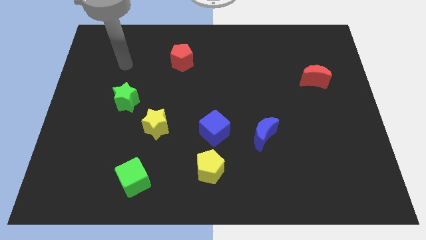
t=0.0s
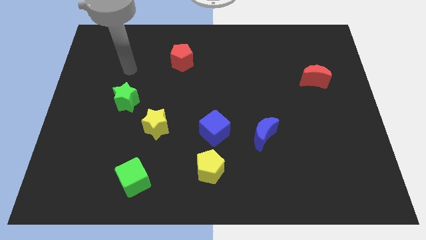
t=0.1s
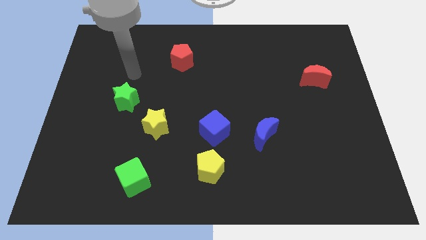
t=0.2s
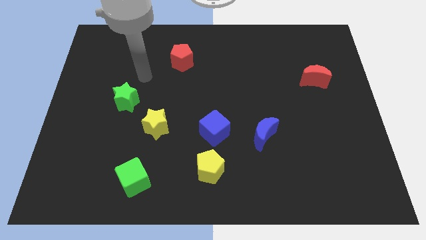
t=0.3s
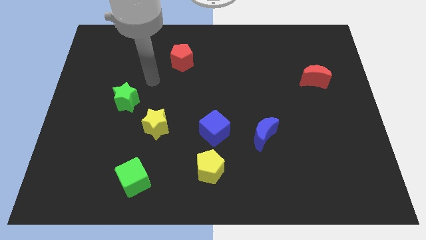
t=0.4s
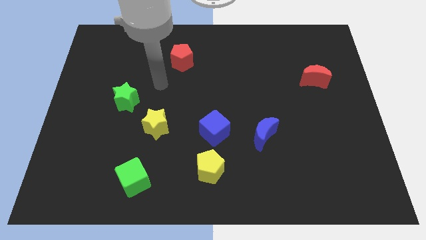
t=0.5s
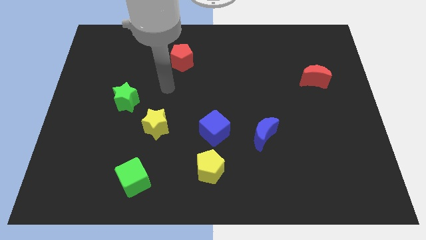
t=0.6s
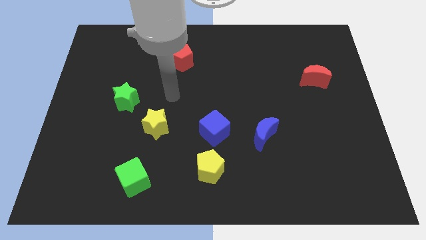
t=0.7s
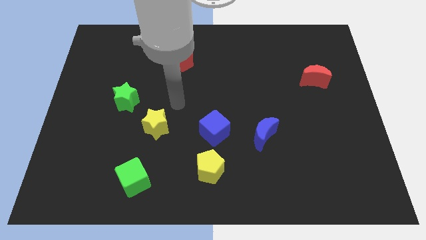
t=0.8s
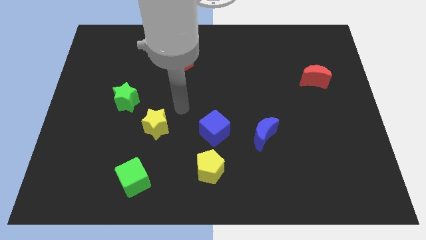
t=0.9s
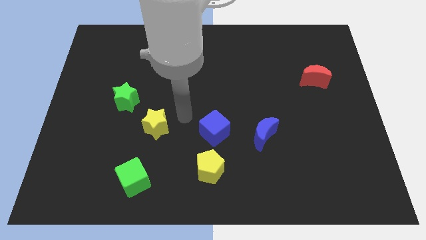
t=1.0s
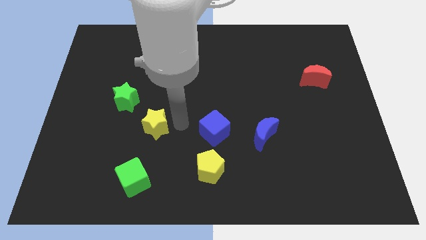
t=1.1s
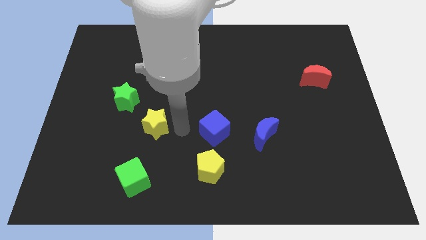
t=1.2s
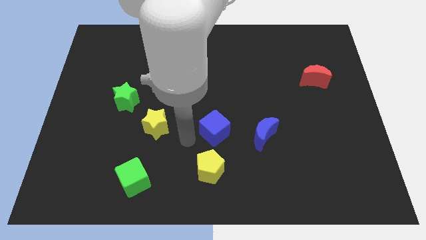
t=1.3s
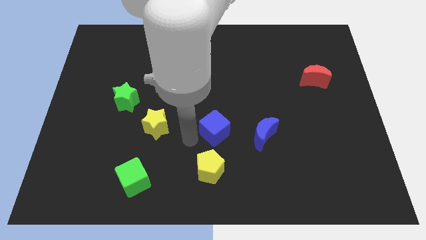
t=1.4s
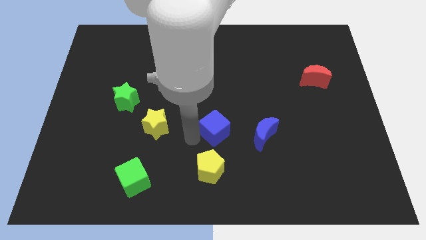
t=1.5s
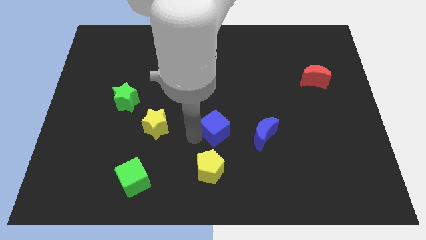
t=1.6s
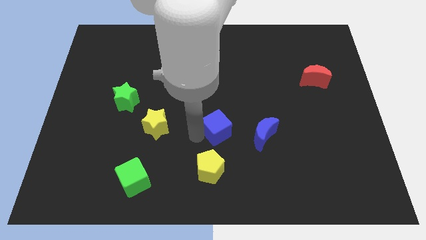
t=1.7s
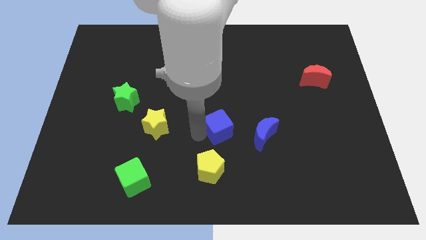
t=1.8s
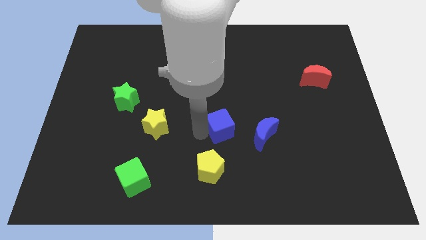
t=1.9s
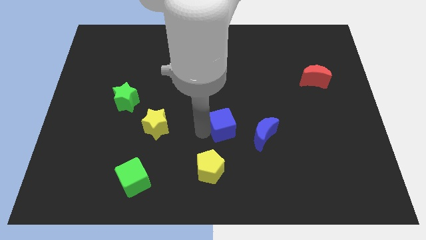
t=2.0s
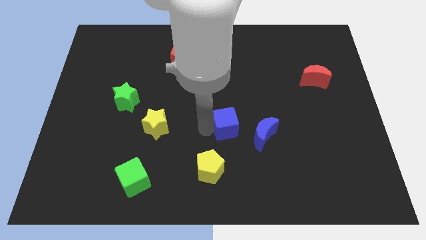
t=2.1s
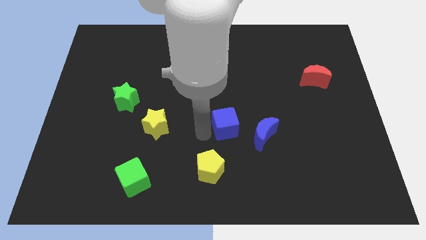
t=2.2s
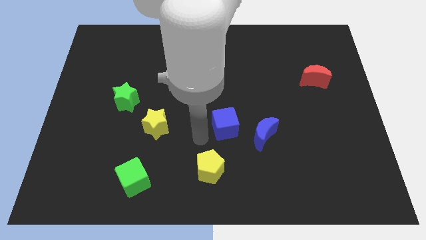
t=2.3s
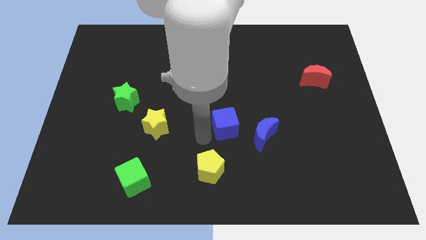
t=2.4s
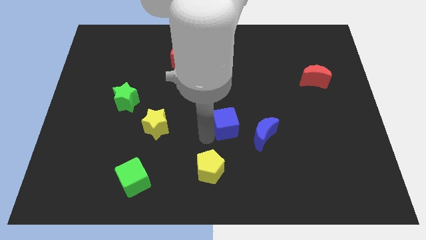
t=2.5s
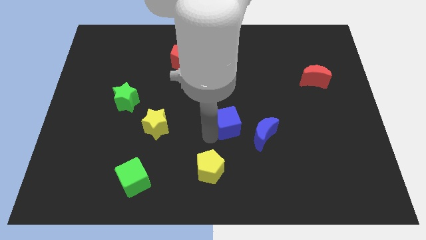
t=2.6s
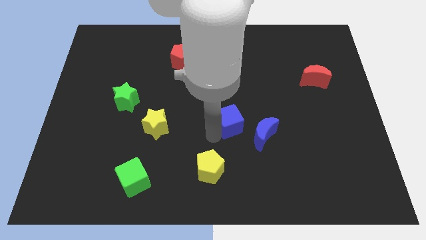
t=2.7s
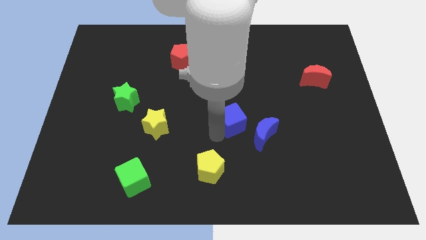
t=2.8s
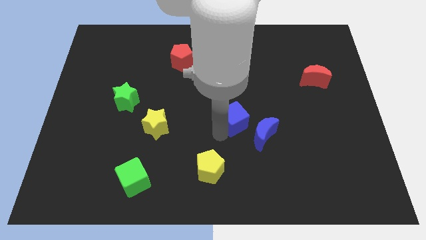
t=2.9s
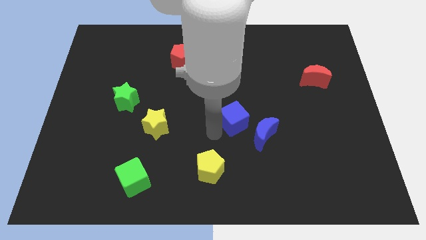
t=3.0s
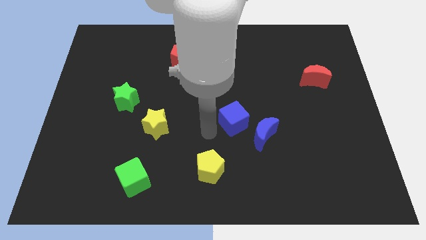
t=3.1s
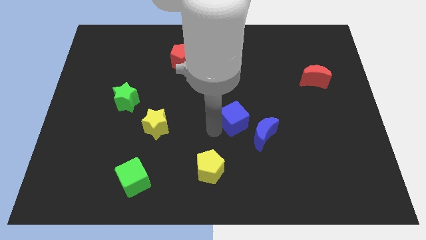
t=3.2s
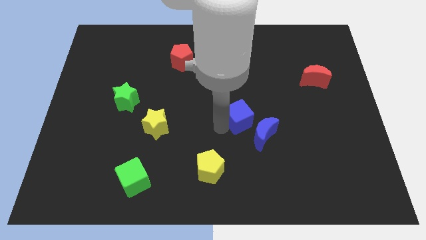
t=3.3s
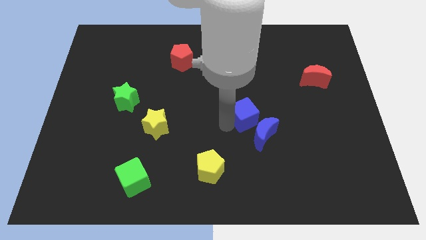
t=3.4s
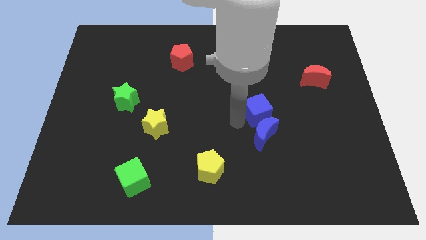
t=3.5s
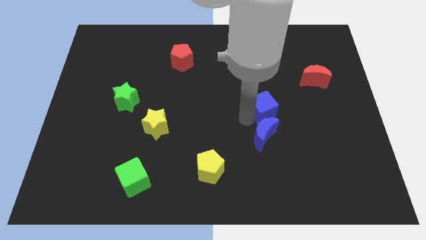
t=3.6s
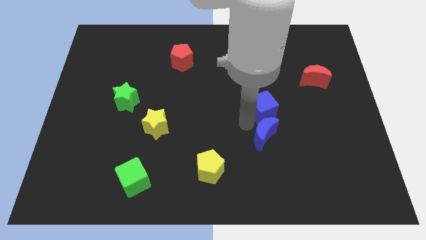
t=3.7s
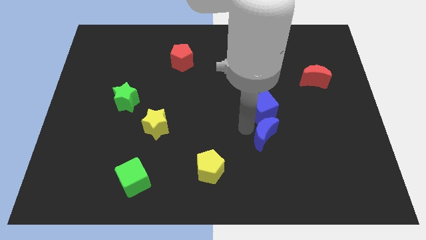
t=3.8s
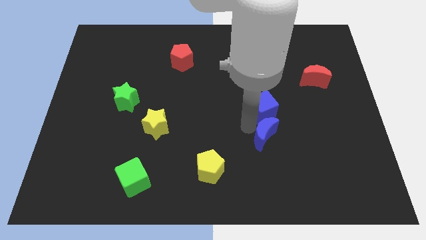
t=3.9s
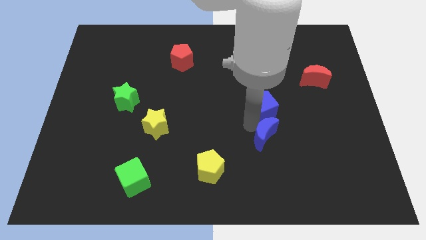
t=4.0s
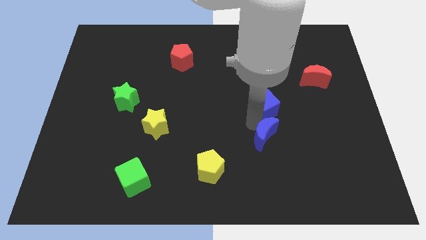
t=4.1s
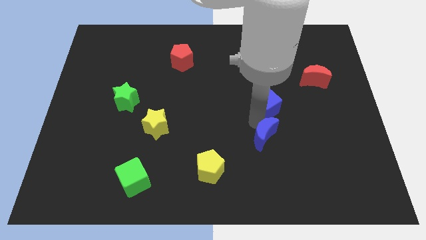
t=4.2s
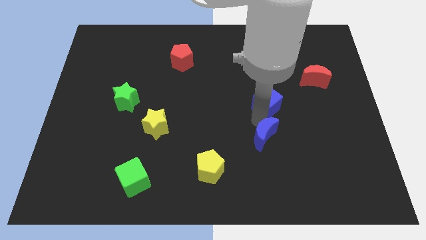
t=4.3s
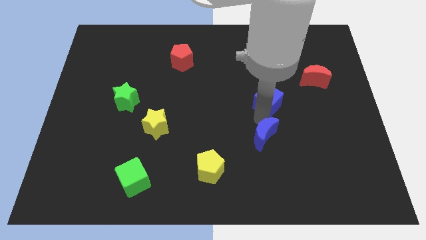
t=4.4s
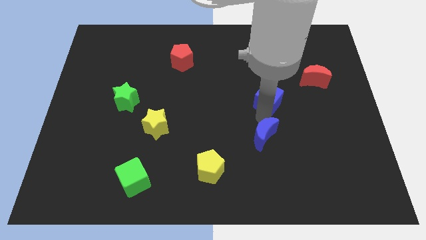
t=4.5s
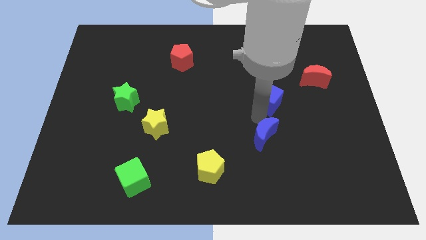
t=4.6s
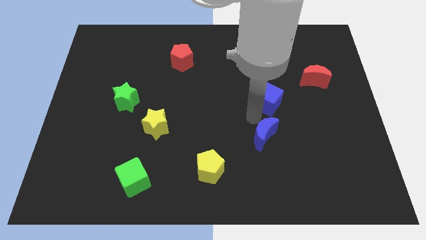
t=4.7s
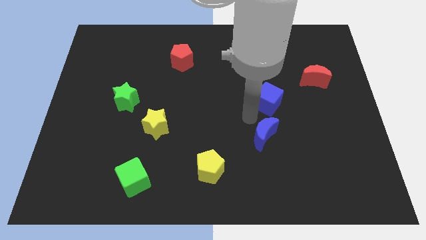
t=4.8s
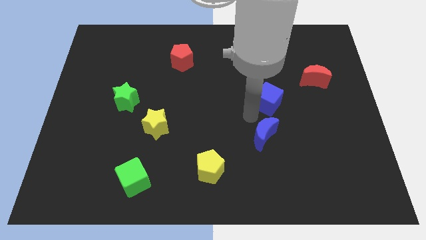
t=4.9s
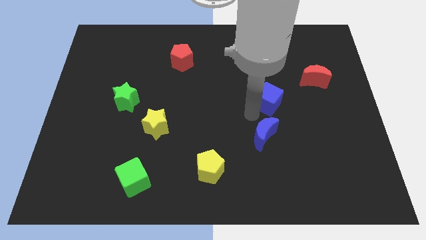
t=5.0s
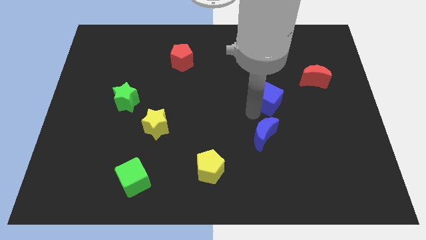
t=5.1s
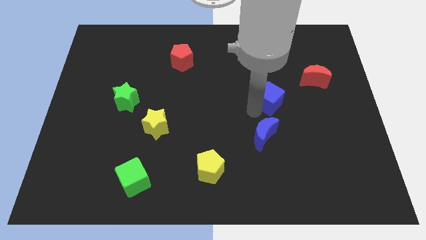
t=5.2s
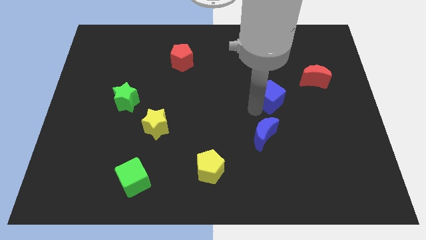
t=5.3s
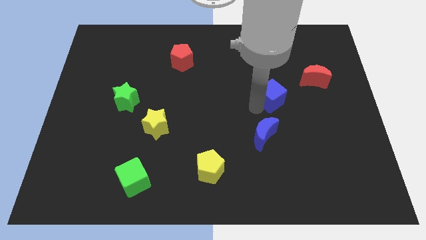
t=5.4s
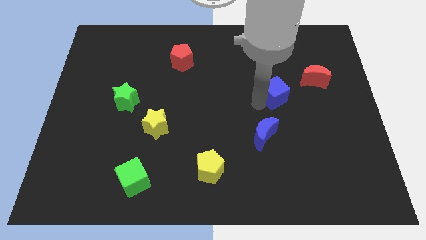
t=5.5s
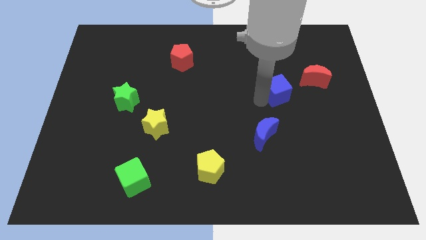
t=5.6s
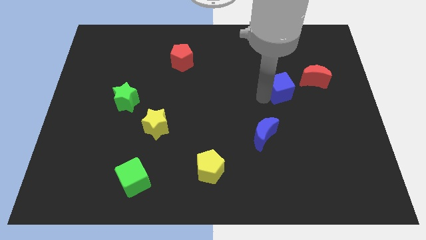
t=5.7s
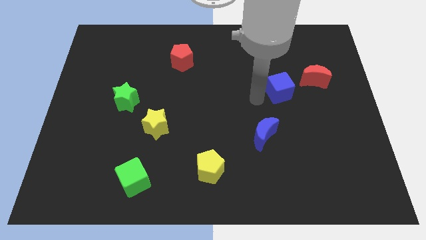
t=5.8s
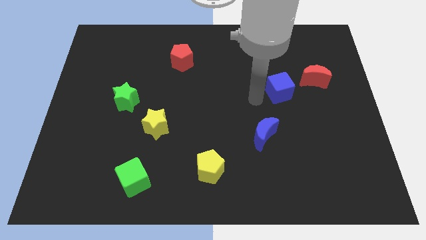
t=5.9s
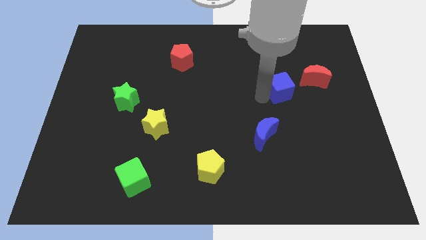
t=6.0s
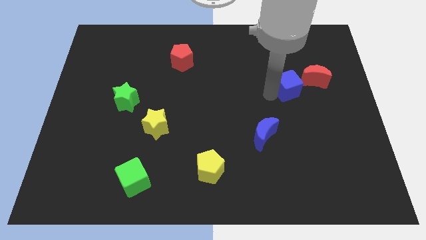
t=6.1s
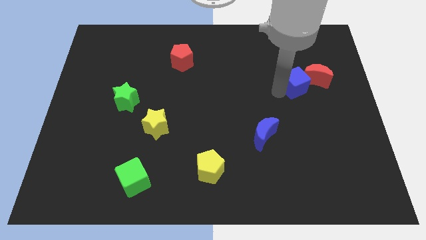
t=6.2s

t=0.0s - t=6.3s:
slide the blue cube close to the red moon

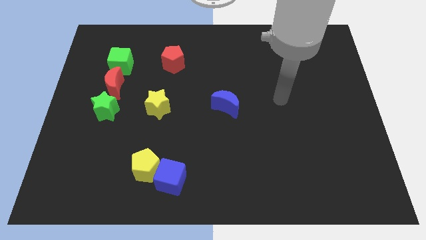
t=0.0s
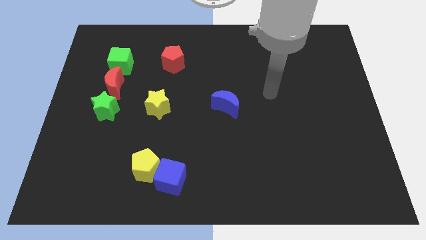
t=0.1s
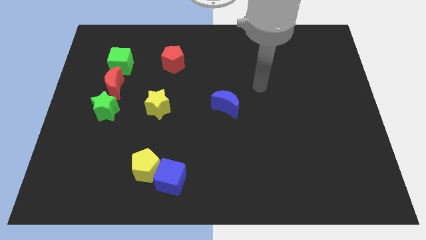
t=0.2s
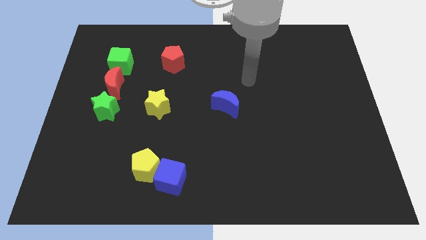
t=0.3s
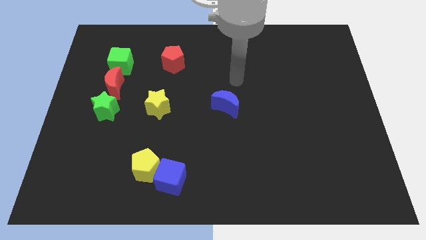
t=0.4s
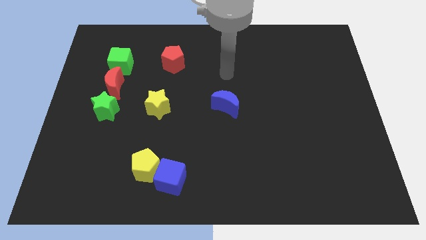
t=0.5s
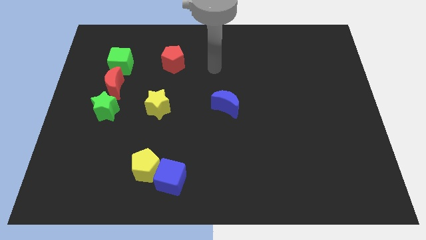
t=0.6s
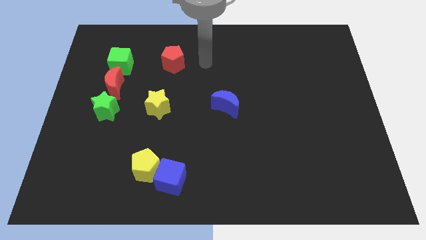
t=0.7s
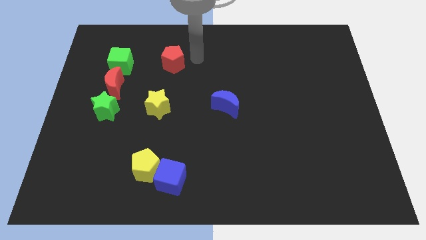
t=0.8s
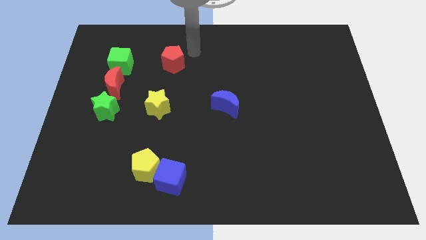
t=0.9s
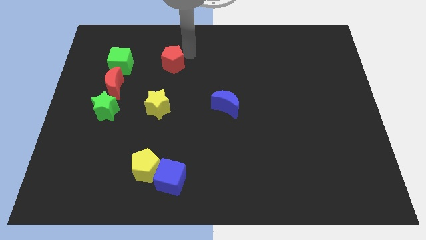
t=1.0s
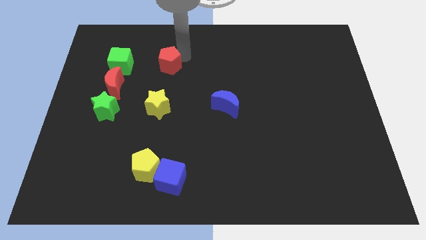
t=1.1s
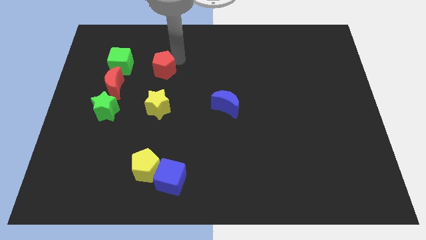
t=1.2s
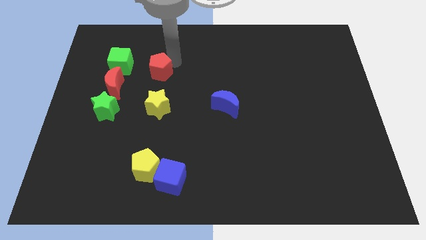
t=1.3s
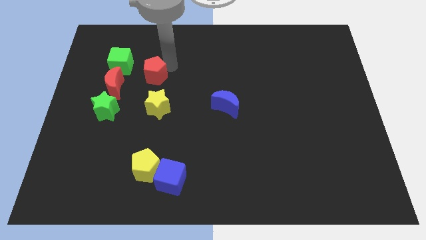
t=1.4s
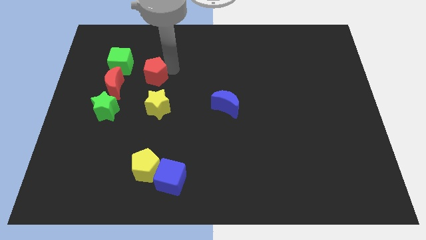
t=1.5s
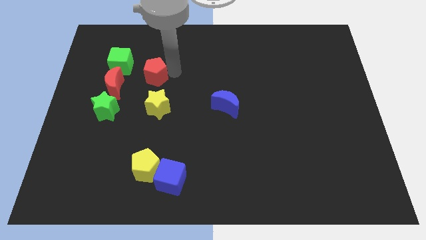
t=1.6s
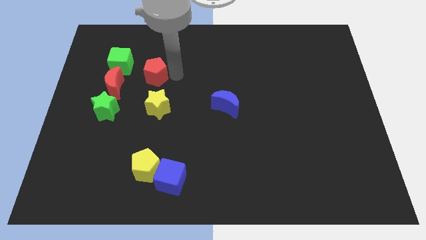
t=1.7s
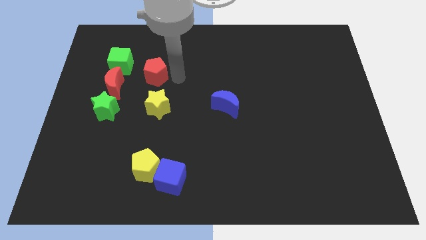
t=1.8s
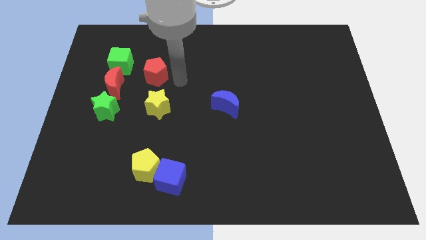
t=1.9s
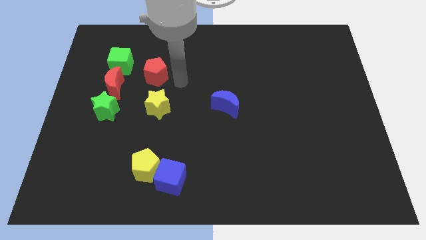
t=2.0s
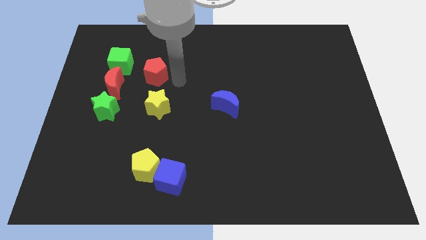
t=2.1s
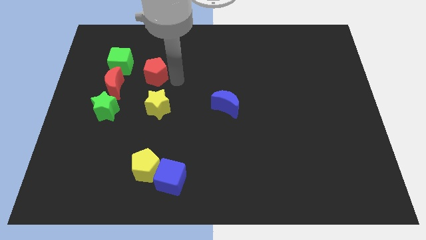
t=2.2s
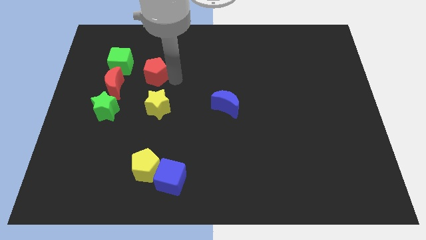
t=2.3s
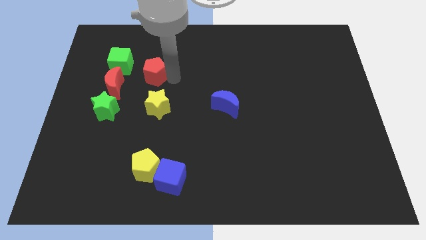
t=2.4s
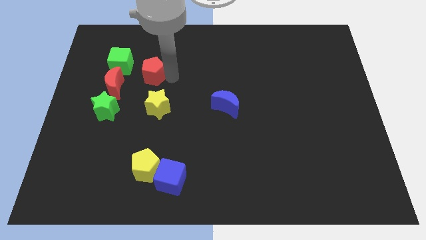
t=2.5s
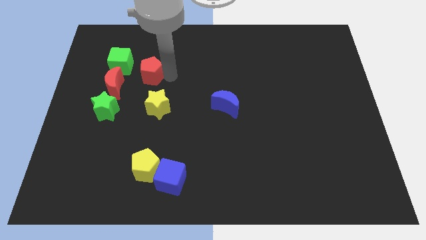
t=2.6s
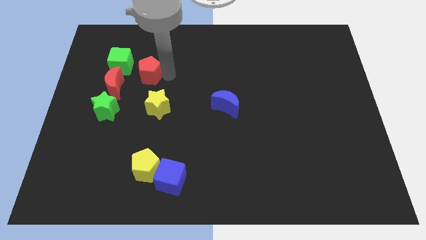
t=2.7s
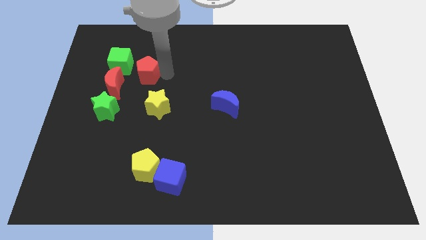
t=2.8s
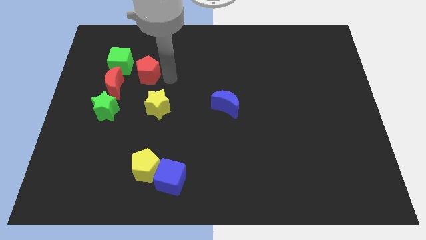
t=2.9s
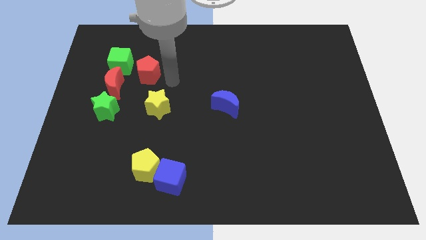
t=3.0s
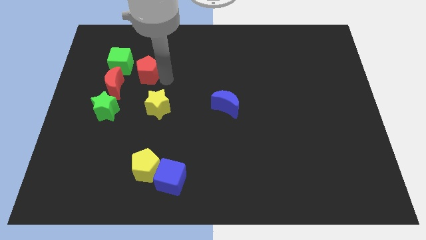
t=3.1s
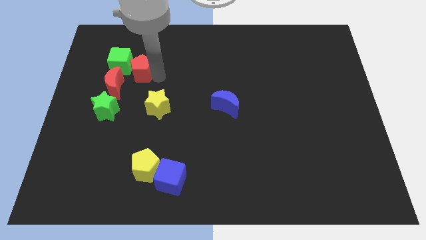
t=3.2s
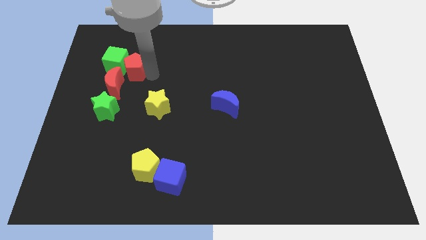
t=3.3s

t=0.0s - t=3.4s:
push the red pentagon to the green cube
